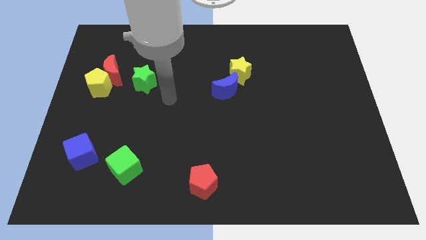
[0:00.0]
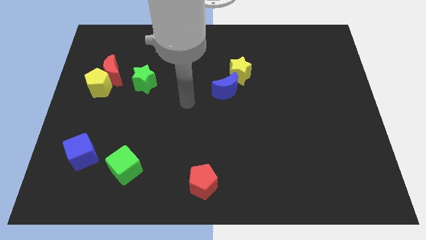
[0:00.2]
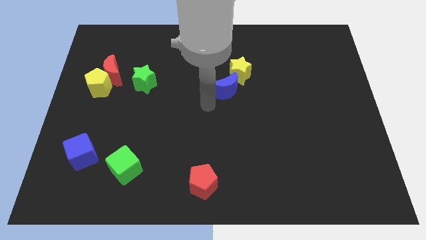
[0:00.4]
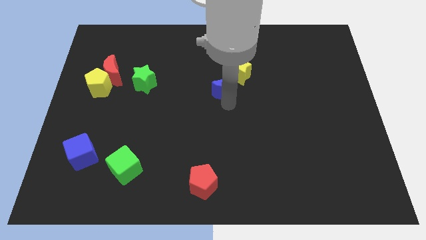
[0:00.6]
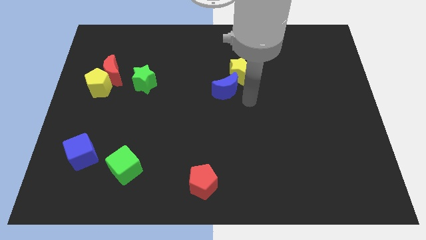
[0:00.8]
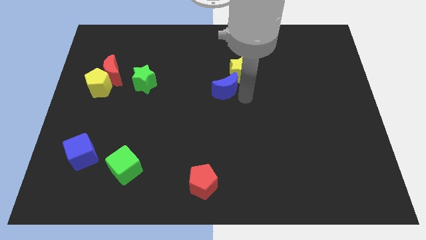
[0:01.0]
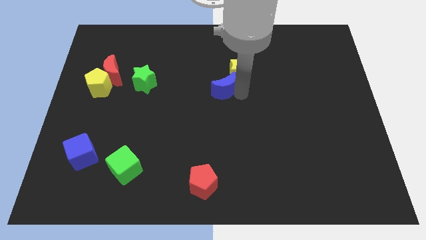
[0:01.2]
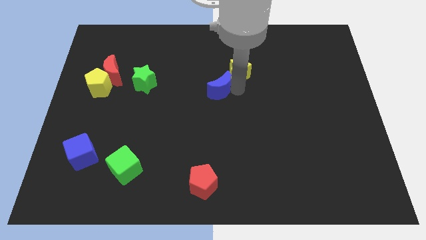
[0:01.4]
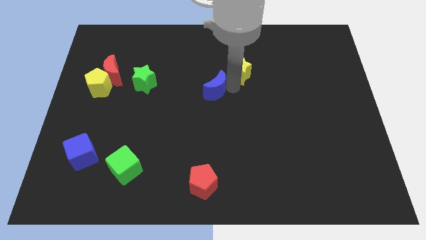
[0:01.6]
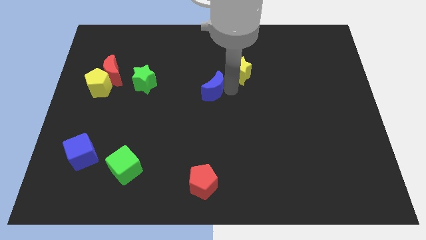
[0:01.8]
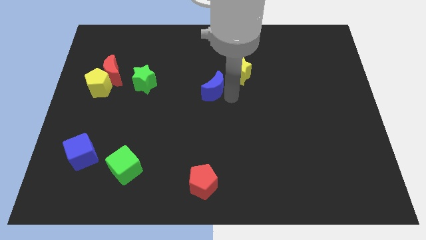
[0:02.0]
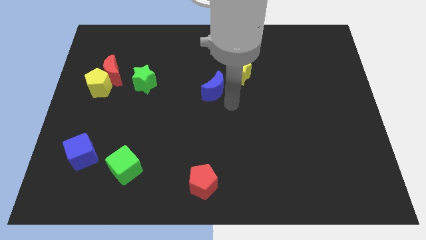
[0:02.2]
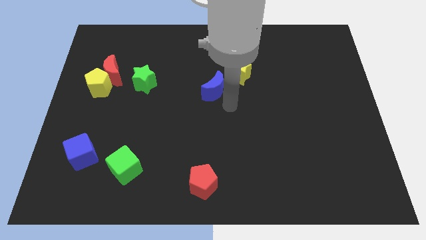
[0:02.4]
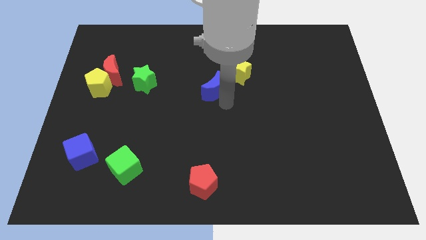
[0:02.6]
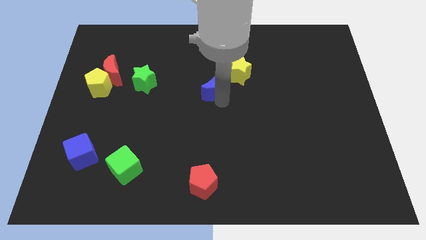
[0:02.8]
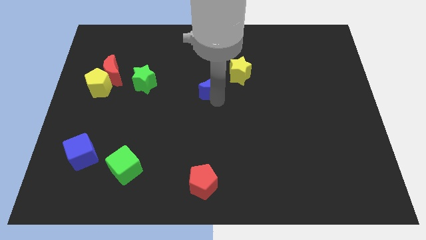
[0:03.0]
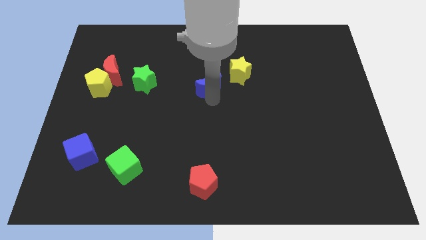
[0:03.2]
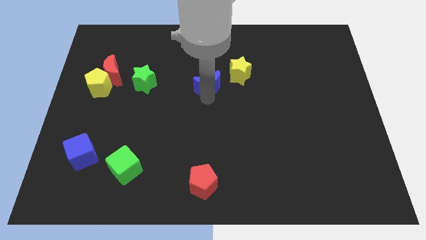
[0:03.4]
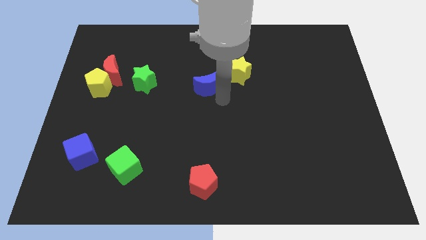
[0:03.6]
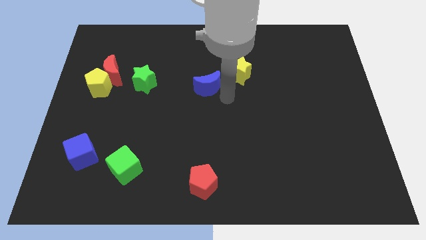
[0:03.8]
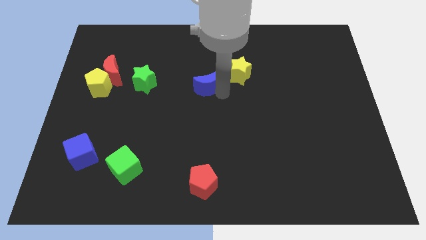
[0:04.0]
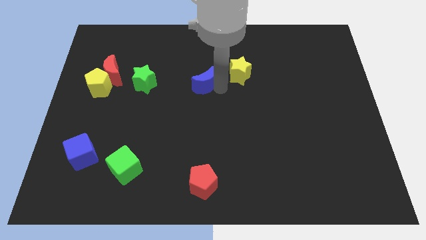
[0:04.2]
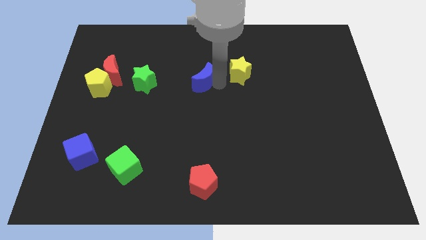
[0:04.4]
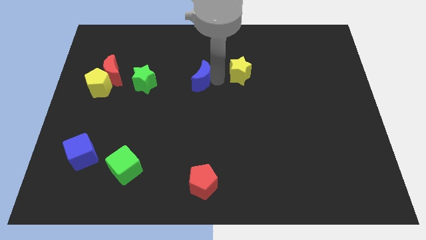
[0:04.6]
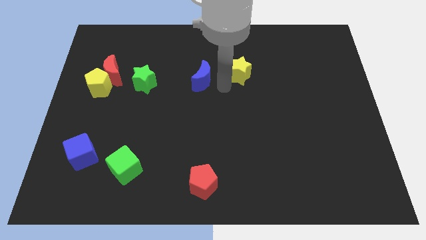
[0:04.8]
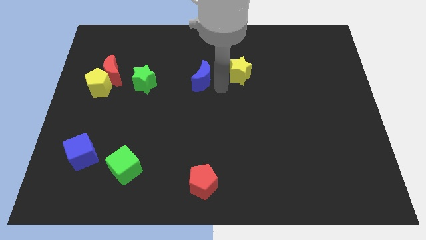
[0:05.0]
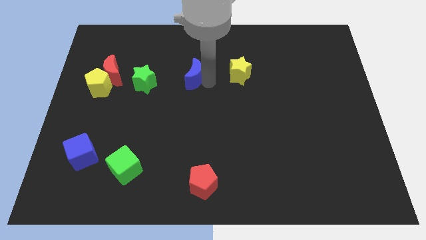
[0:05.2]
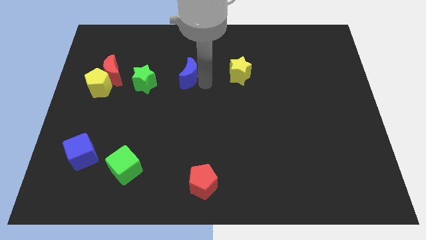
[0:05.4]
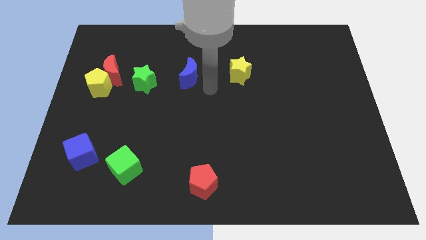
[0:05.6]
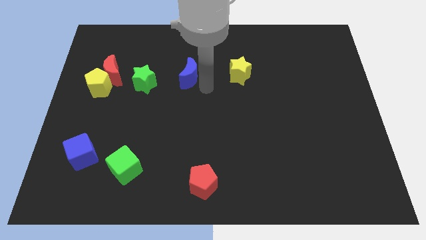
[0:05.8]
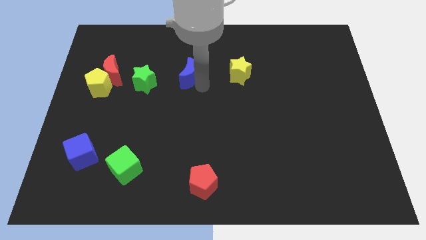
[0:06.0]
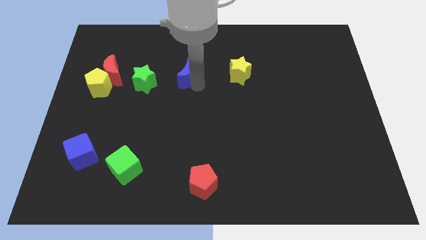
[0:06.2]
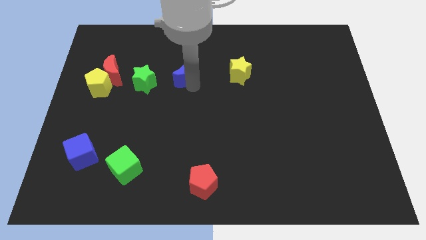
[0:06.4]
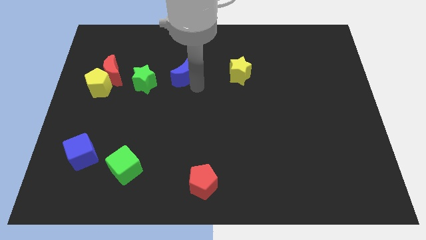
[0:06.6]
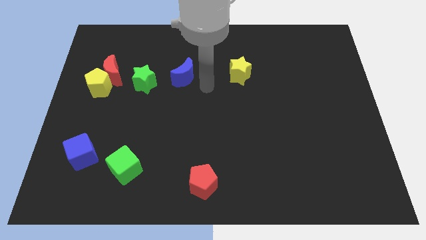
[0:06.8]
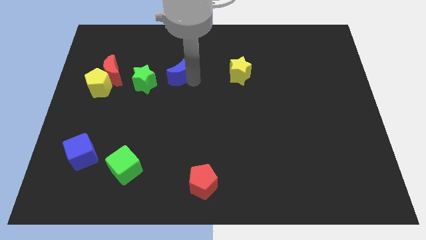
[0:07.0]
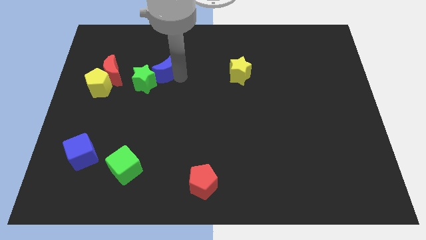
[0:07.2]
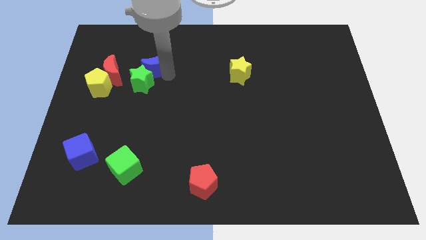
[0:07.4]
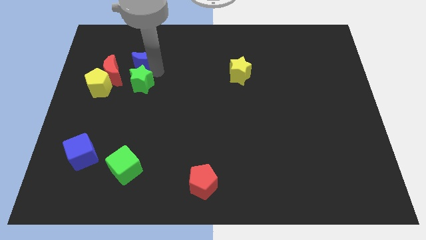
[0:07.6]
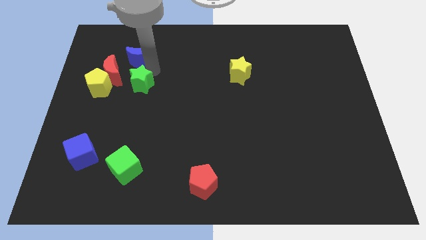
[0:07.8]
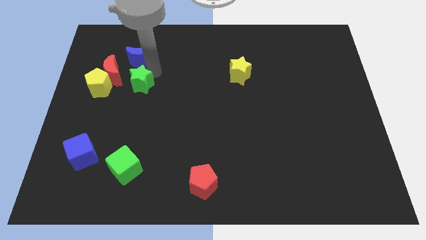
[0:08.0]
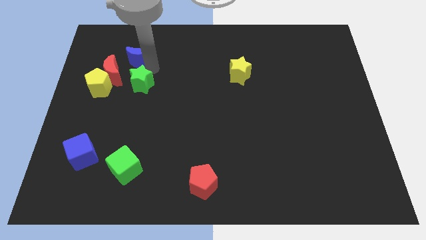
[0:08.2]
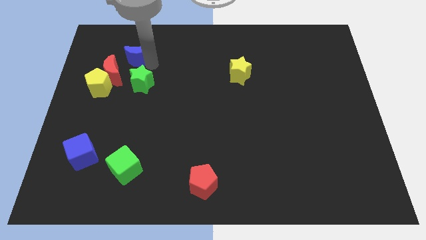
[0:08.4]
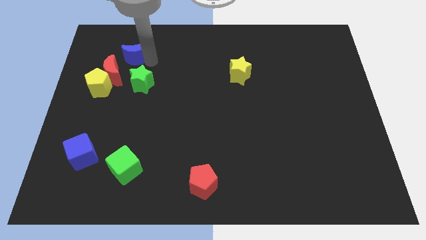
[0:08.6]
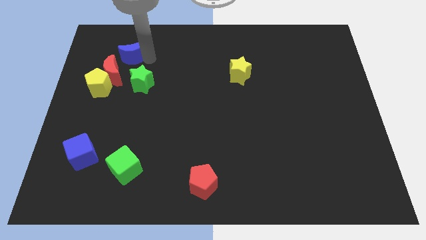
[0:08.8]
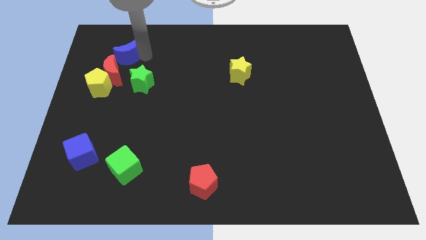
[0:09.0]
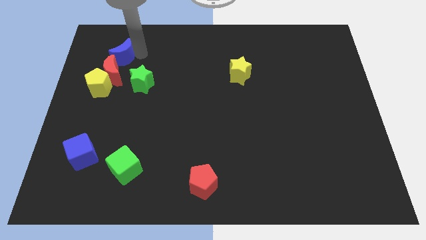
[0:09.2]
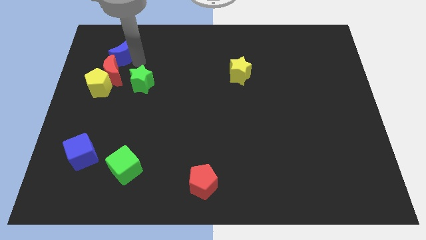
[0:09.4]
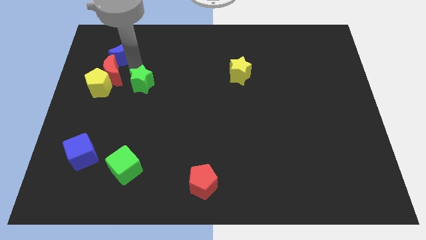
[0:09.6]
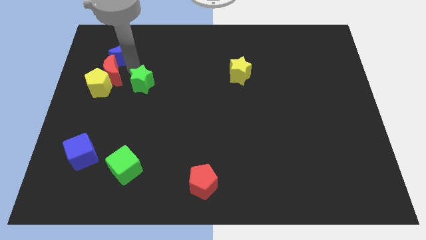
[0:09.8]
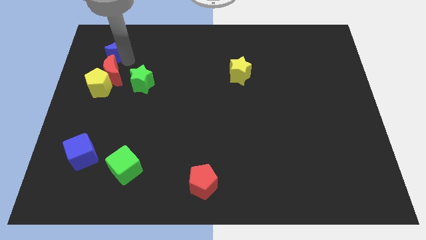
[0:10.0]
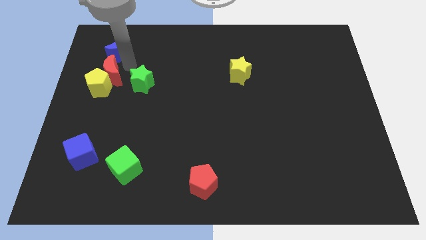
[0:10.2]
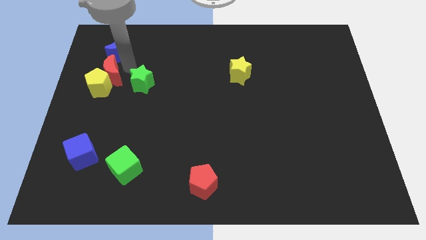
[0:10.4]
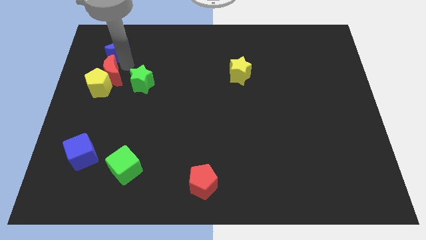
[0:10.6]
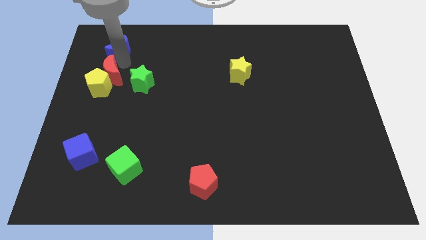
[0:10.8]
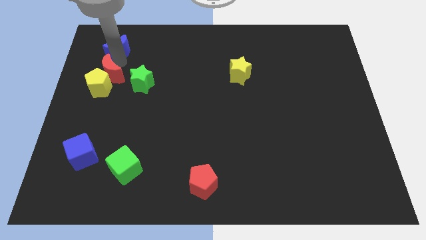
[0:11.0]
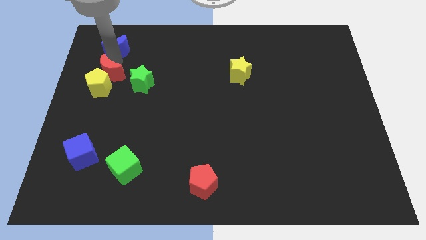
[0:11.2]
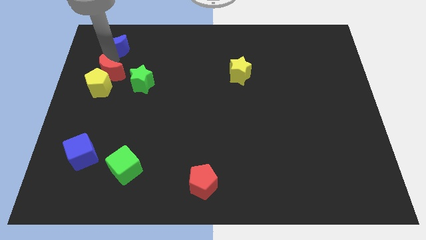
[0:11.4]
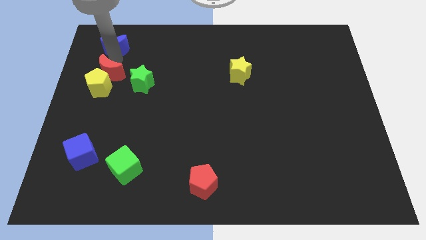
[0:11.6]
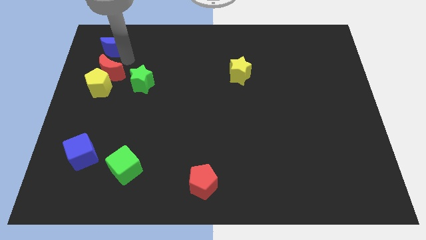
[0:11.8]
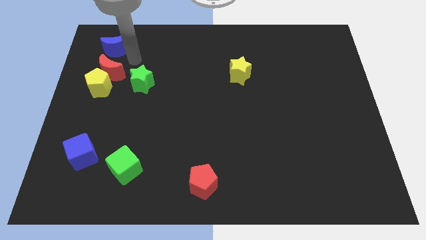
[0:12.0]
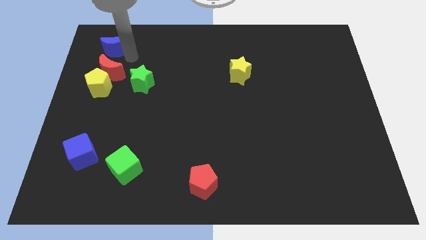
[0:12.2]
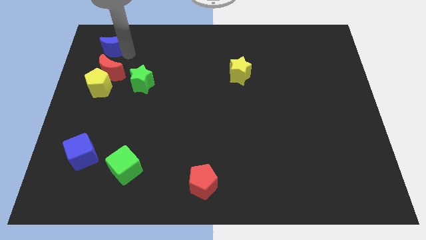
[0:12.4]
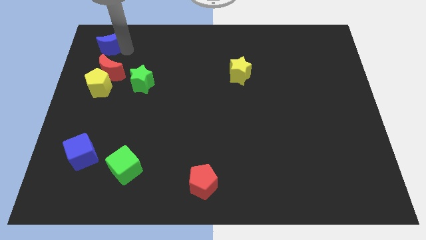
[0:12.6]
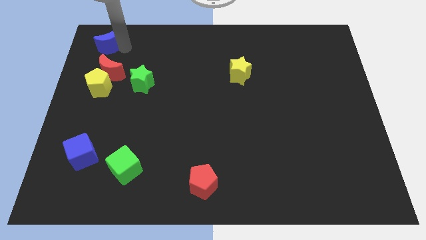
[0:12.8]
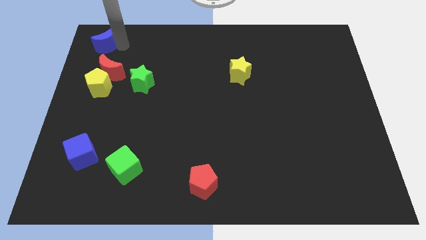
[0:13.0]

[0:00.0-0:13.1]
move the blue moon to the upper left corner
